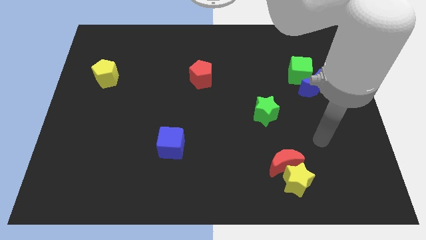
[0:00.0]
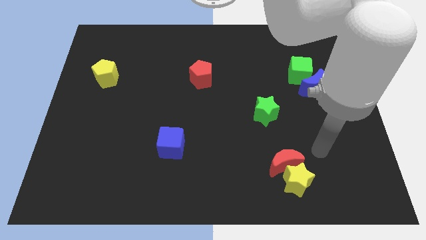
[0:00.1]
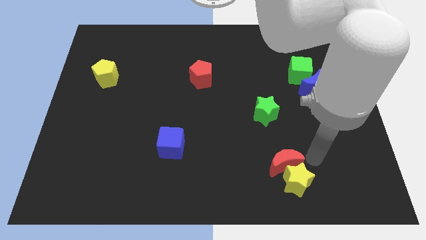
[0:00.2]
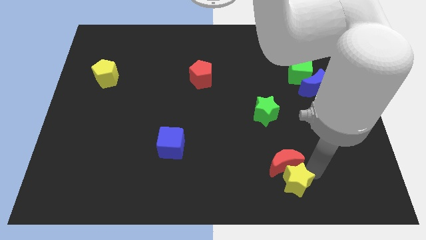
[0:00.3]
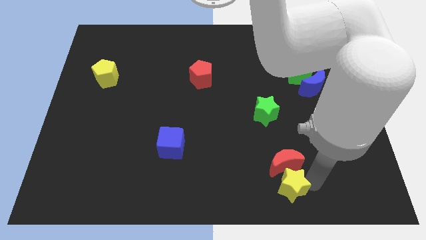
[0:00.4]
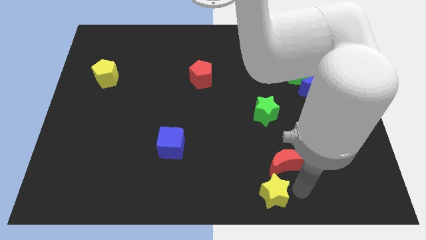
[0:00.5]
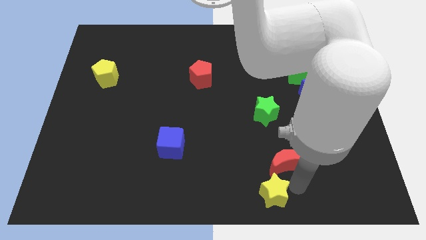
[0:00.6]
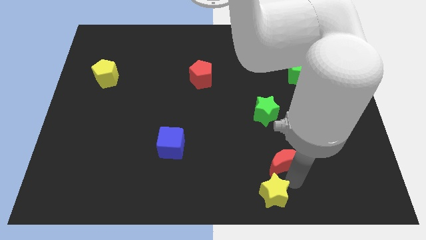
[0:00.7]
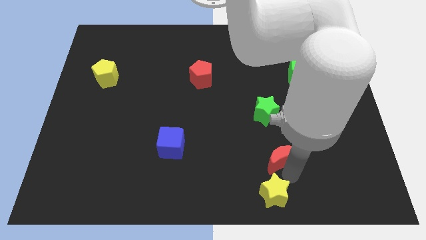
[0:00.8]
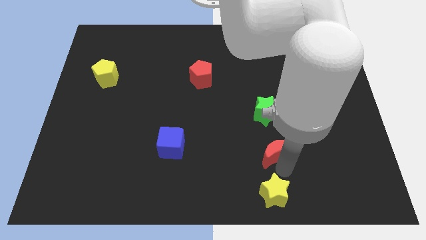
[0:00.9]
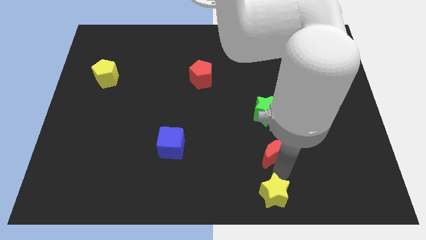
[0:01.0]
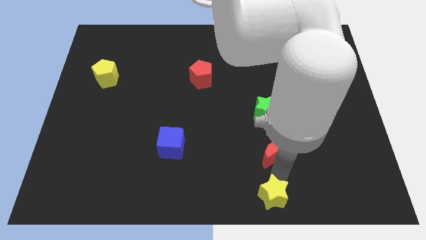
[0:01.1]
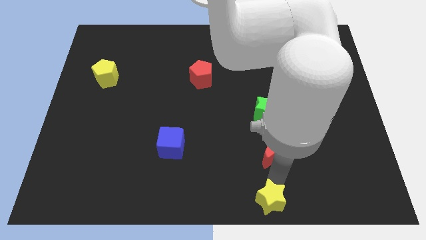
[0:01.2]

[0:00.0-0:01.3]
move the red moon away from the yellow star

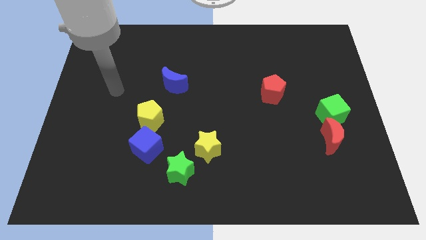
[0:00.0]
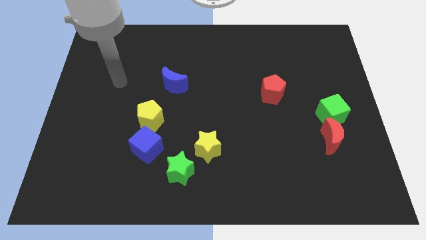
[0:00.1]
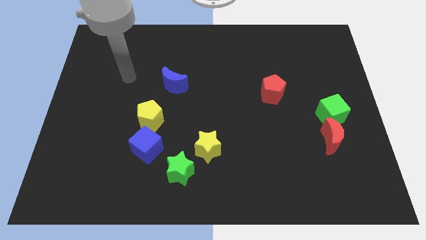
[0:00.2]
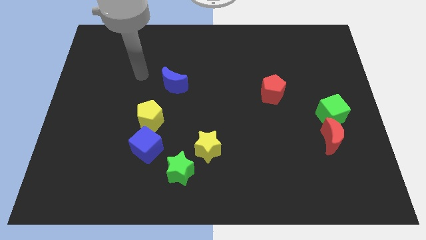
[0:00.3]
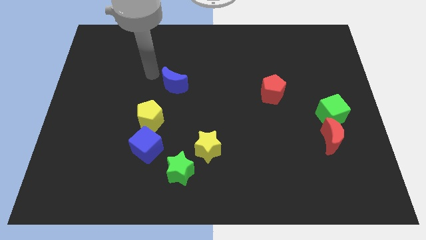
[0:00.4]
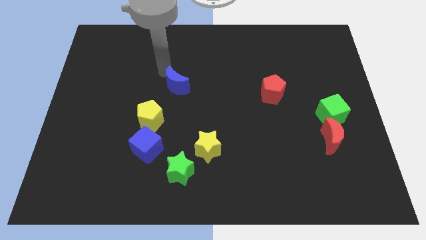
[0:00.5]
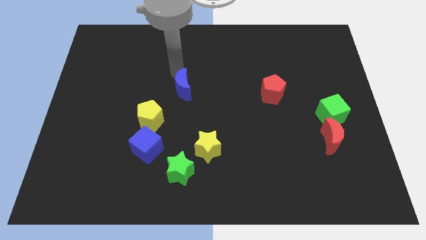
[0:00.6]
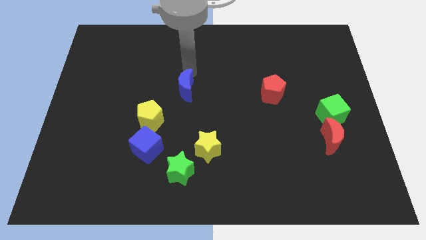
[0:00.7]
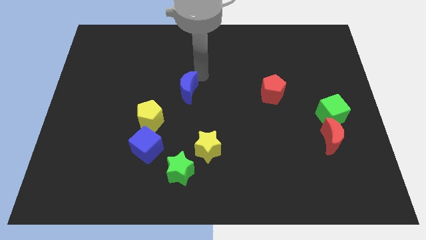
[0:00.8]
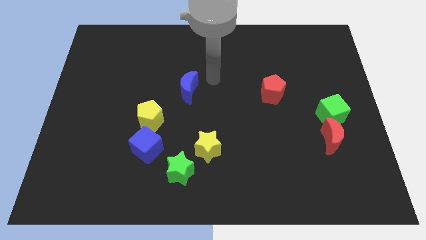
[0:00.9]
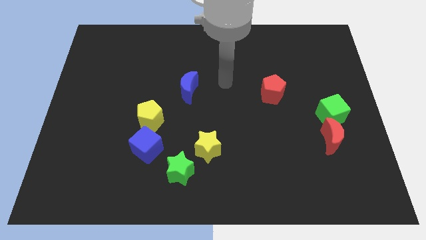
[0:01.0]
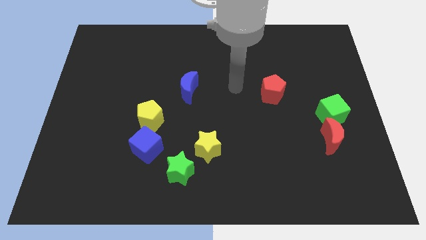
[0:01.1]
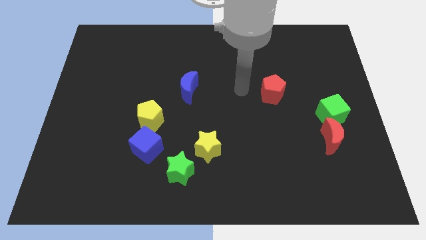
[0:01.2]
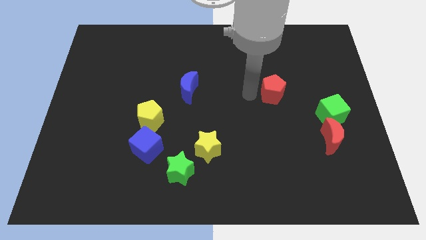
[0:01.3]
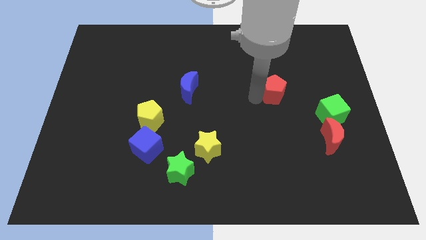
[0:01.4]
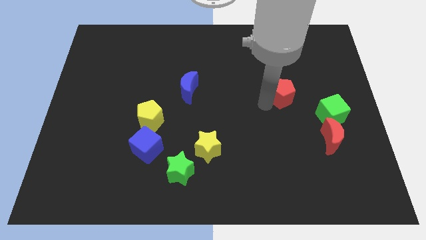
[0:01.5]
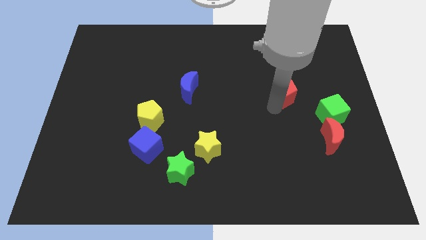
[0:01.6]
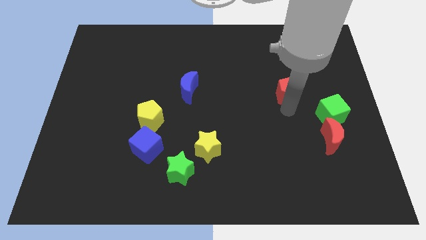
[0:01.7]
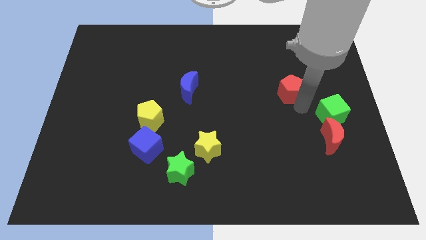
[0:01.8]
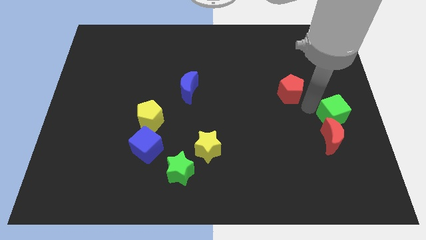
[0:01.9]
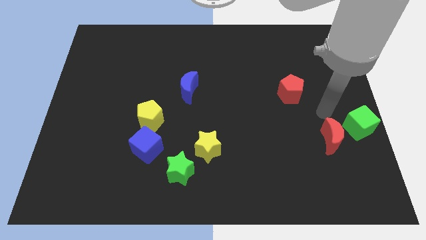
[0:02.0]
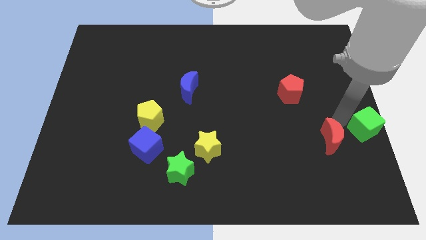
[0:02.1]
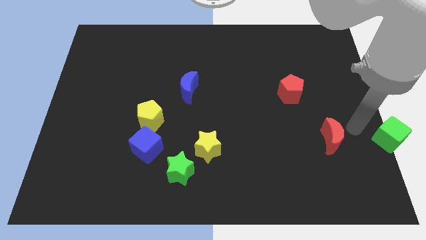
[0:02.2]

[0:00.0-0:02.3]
separate the red moon from the green cube

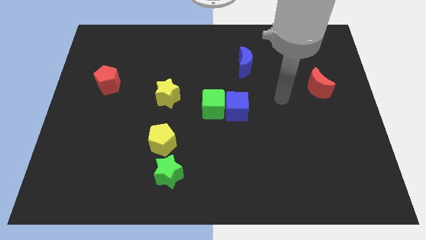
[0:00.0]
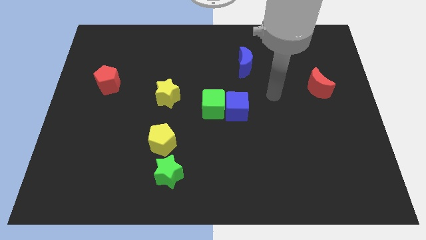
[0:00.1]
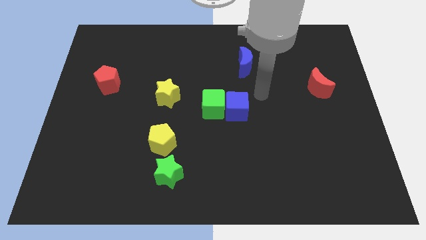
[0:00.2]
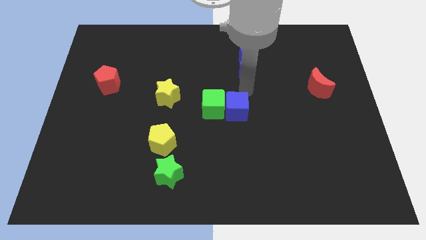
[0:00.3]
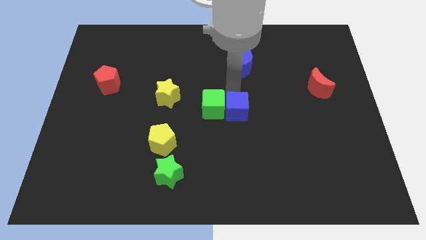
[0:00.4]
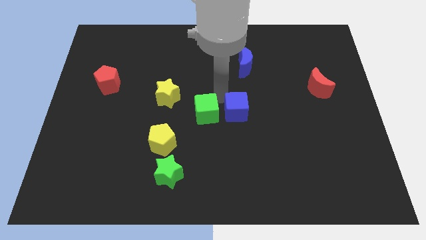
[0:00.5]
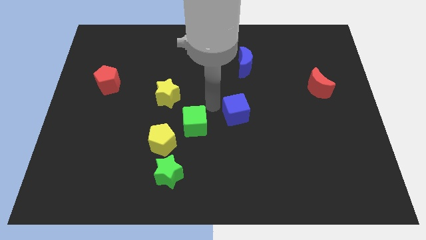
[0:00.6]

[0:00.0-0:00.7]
pull the blue cube apart from the green cube

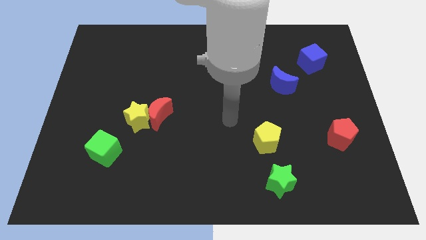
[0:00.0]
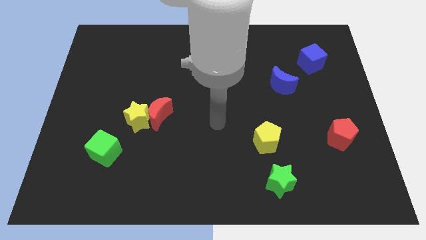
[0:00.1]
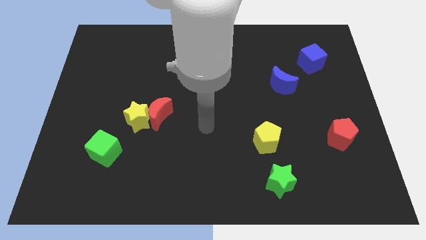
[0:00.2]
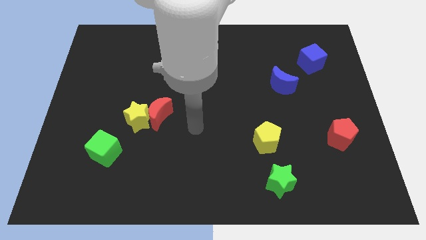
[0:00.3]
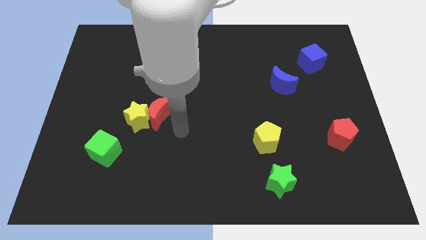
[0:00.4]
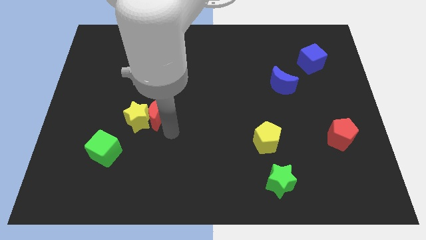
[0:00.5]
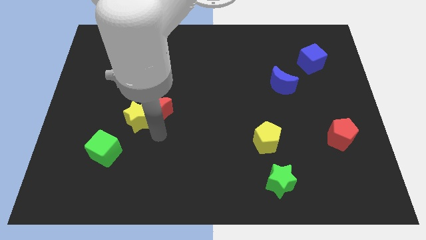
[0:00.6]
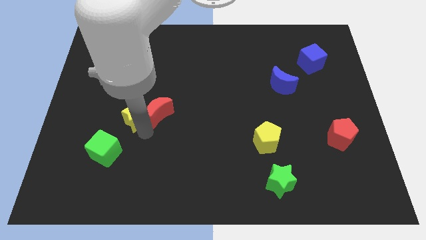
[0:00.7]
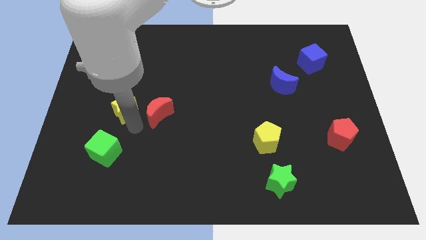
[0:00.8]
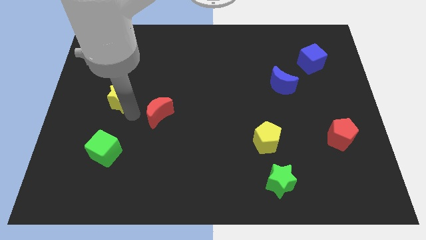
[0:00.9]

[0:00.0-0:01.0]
separate the red moon from the yellow star

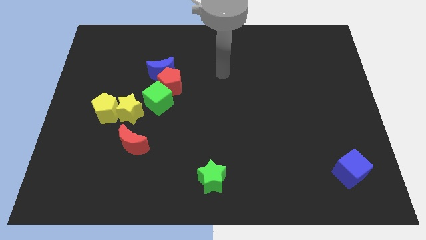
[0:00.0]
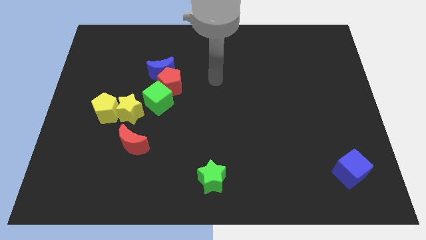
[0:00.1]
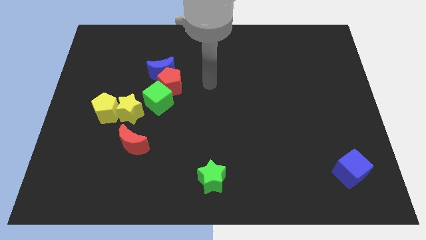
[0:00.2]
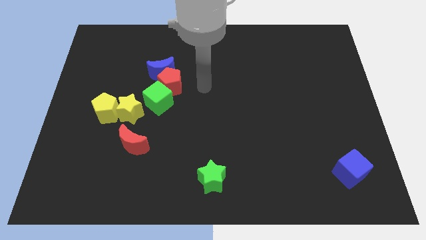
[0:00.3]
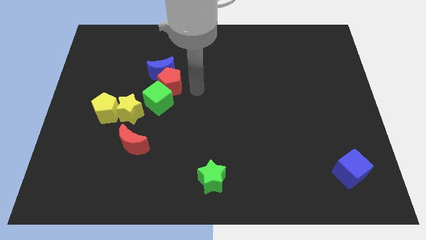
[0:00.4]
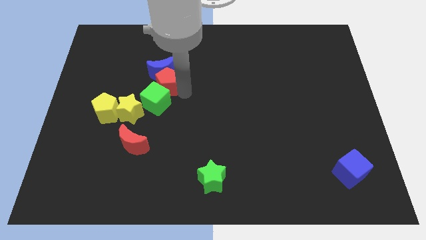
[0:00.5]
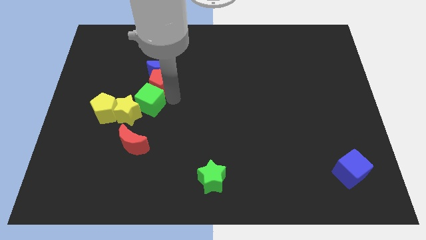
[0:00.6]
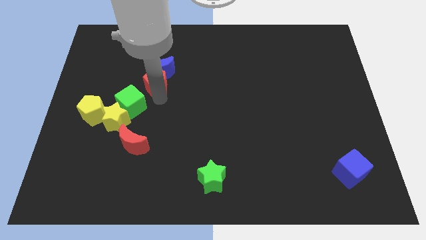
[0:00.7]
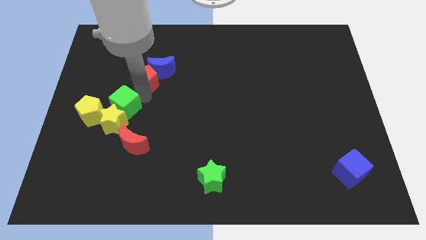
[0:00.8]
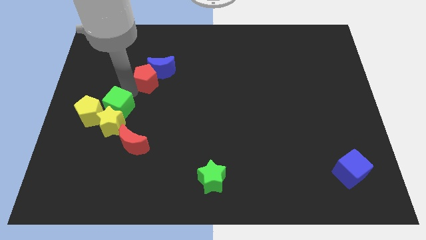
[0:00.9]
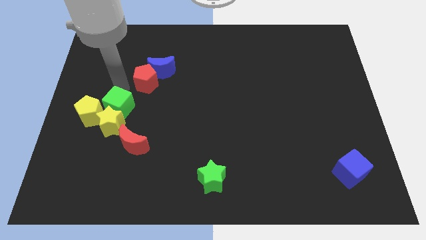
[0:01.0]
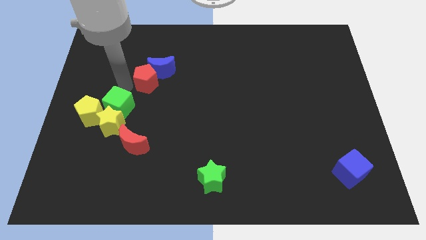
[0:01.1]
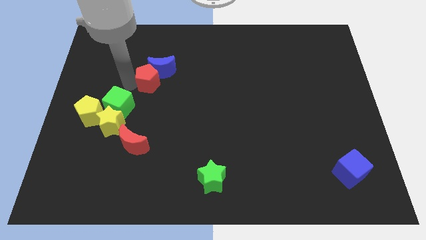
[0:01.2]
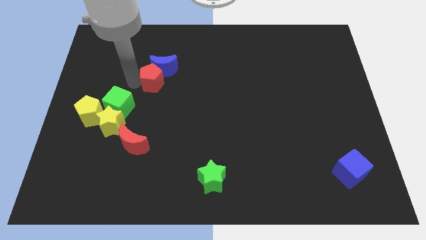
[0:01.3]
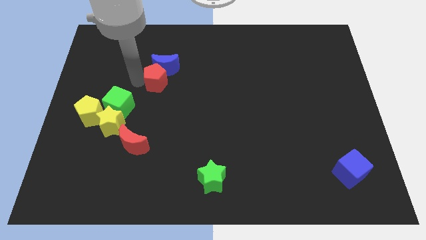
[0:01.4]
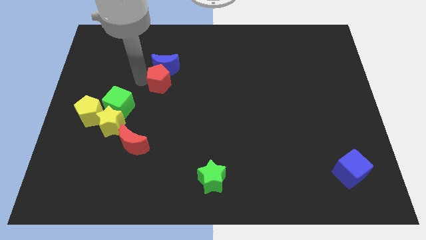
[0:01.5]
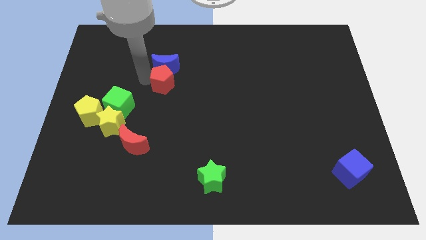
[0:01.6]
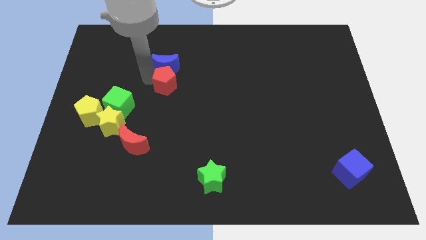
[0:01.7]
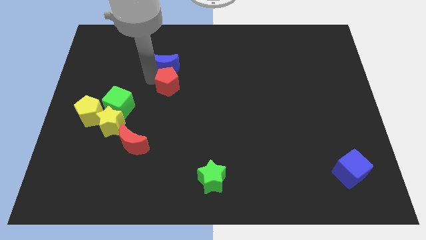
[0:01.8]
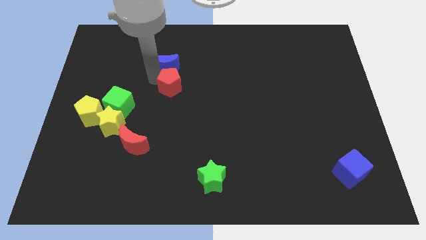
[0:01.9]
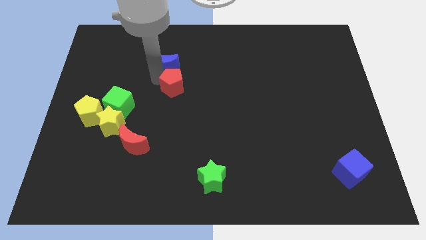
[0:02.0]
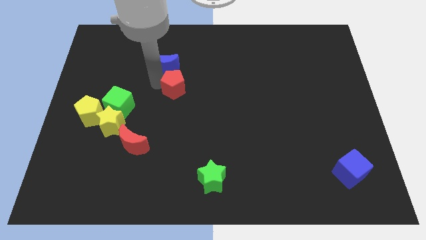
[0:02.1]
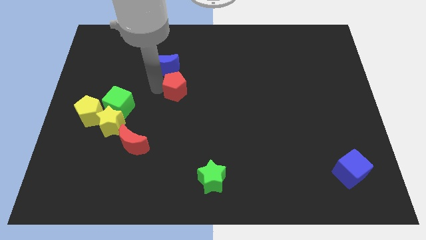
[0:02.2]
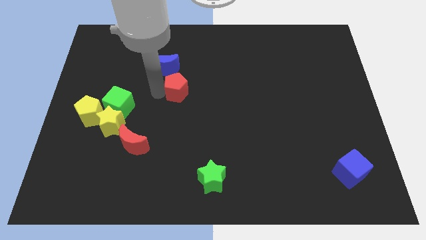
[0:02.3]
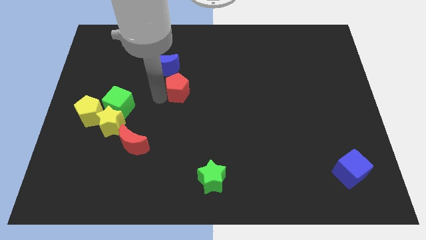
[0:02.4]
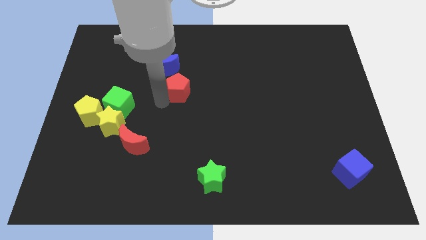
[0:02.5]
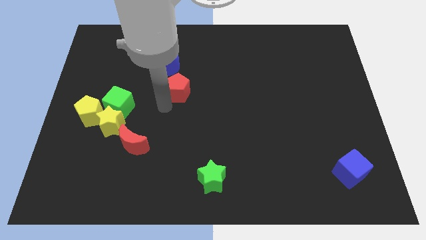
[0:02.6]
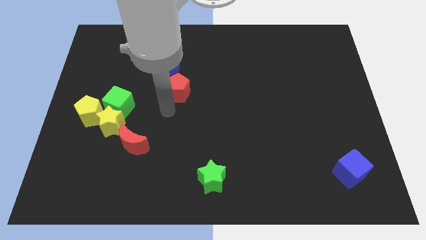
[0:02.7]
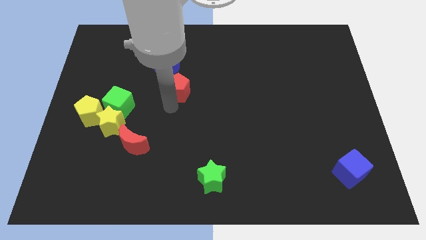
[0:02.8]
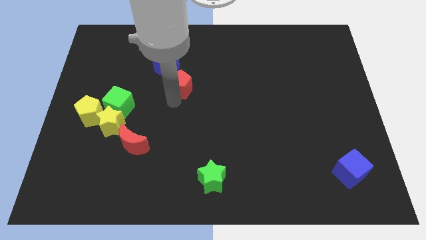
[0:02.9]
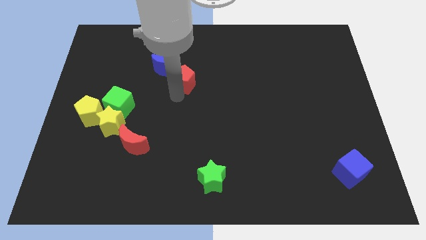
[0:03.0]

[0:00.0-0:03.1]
separate the red pentagon from the blue moon and green cube

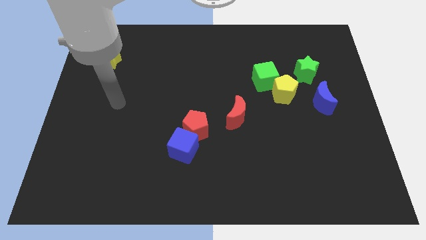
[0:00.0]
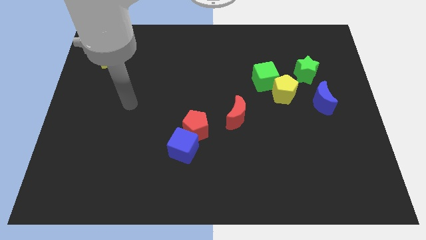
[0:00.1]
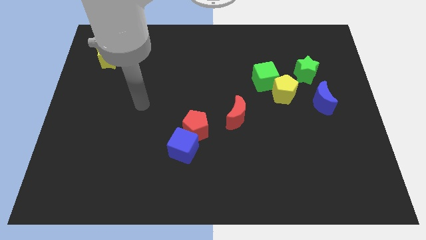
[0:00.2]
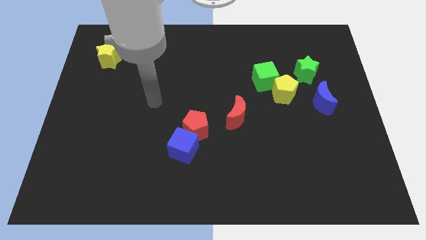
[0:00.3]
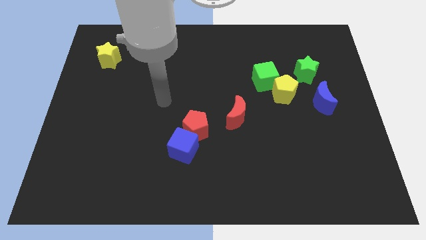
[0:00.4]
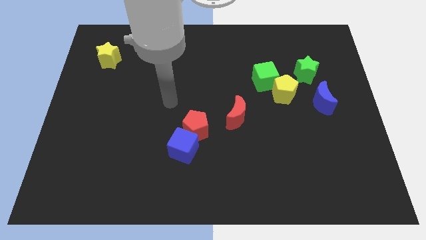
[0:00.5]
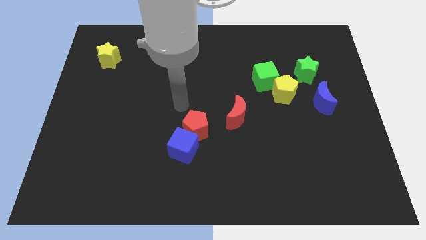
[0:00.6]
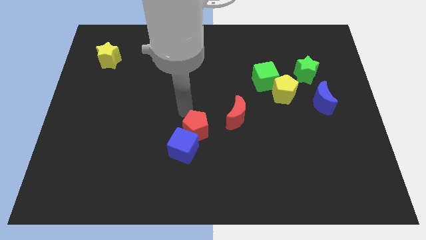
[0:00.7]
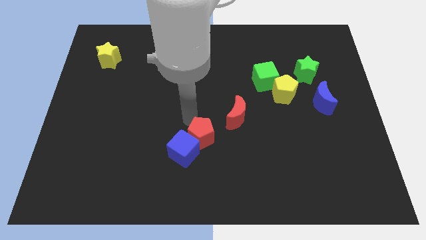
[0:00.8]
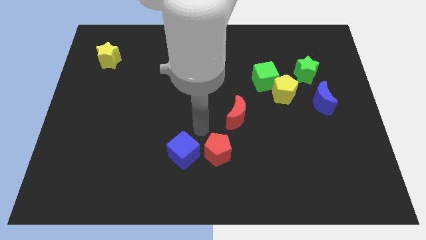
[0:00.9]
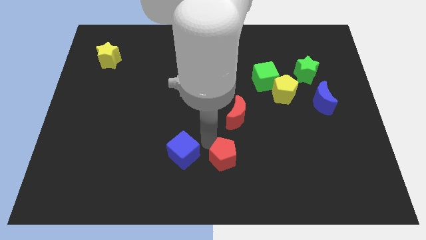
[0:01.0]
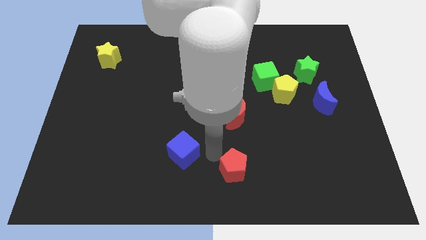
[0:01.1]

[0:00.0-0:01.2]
pull the blue cube apart from the red pentagon
